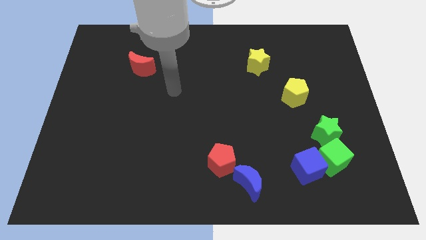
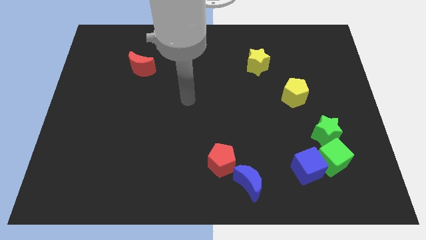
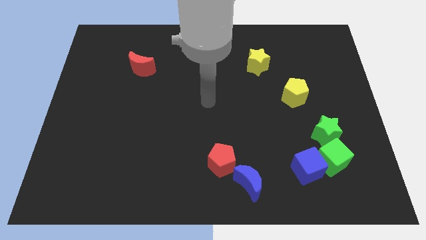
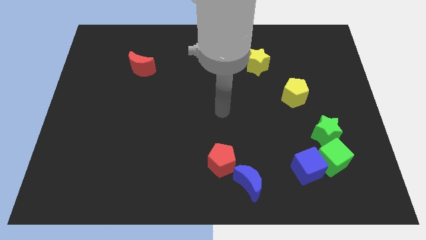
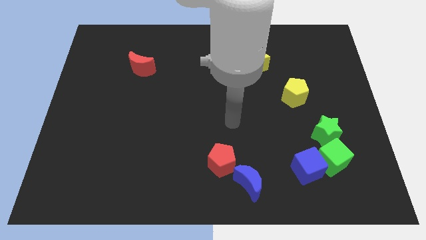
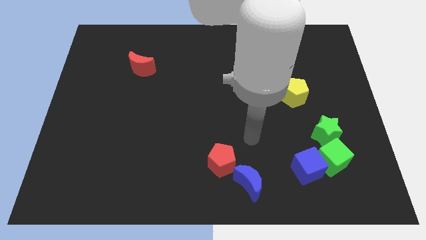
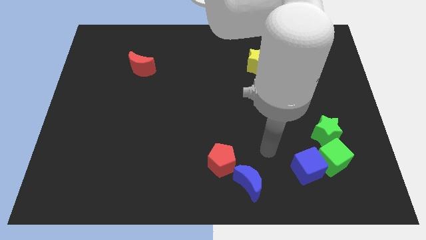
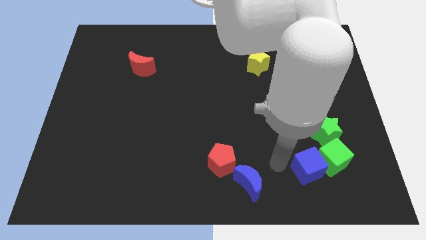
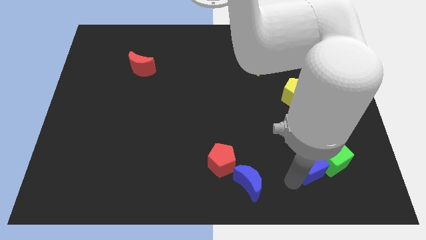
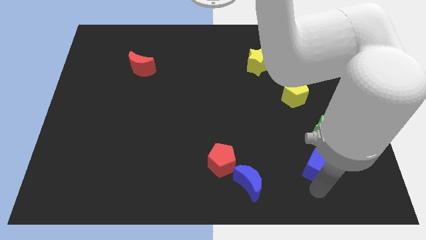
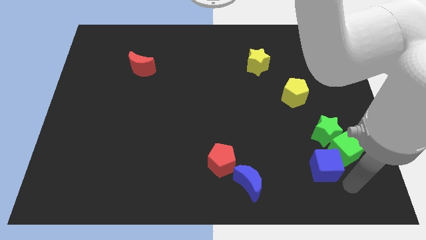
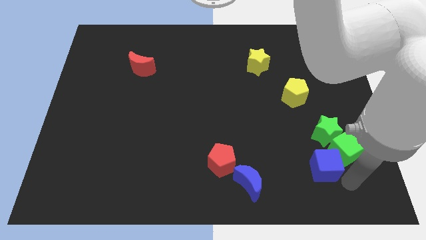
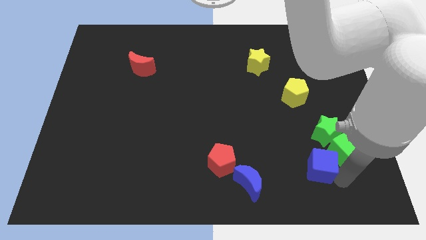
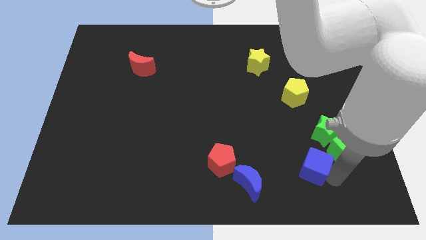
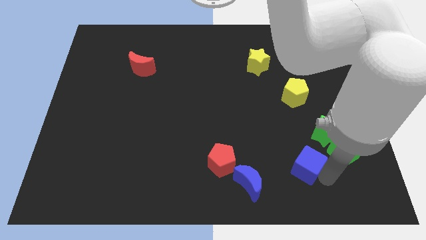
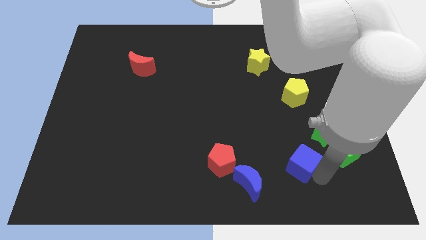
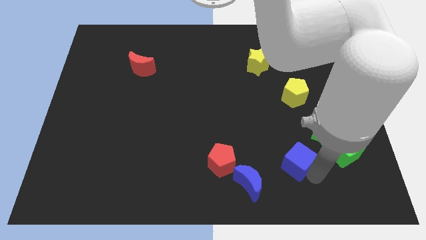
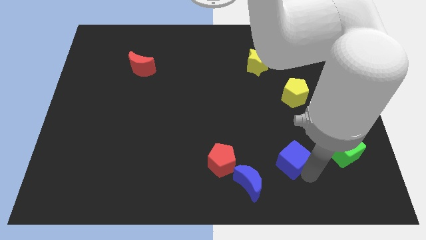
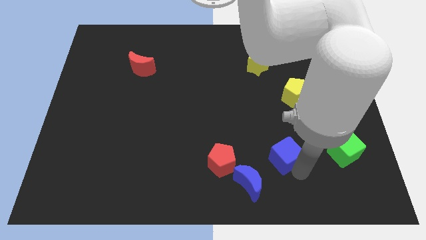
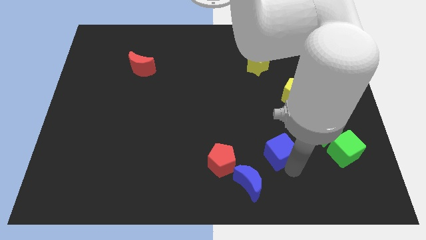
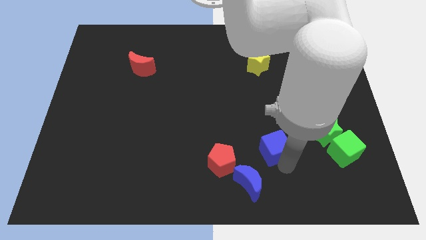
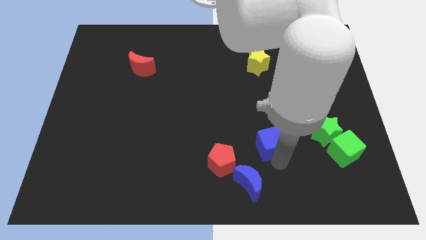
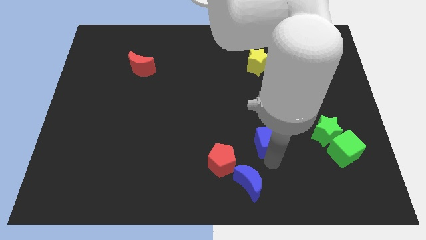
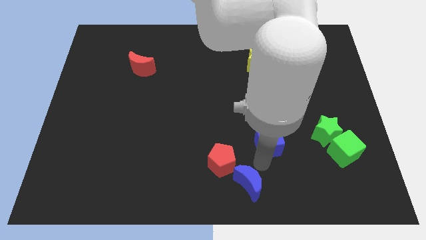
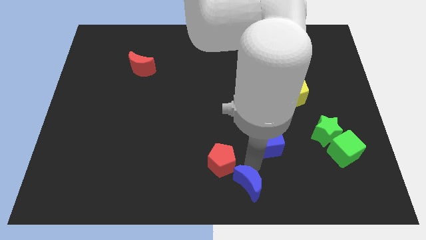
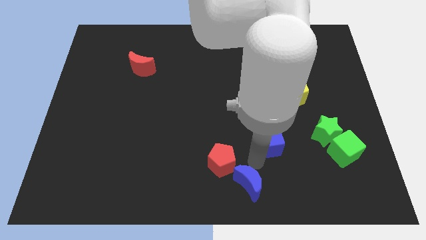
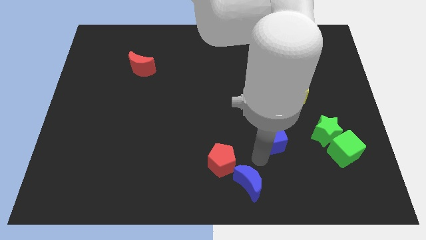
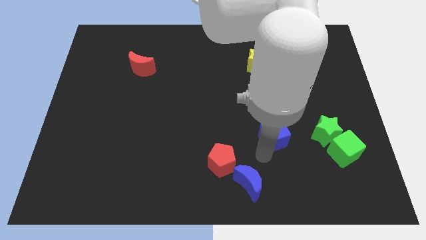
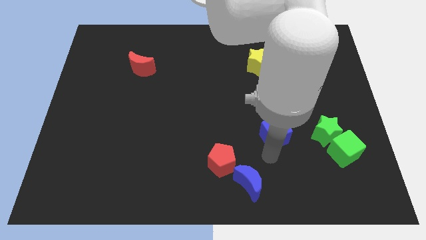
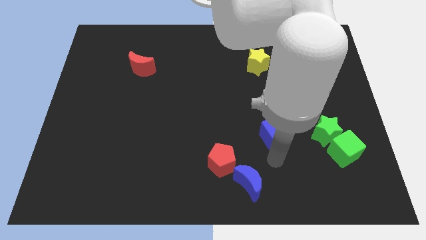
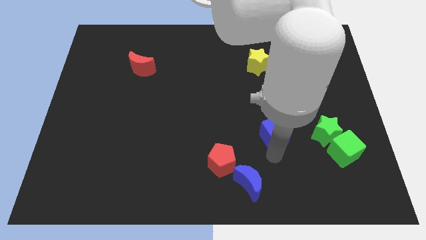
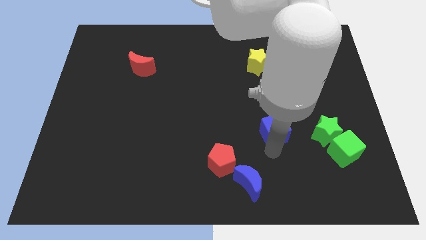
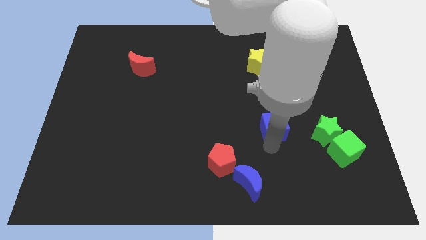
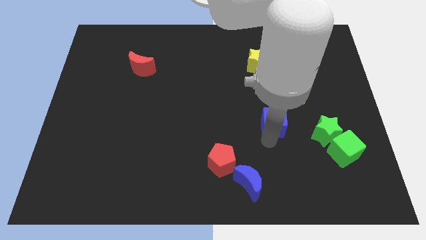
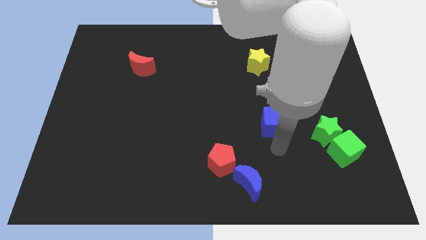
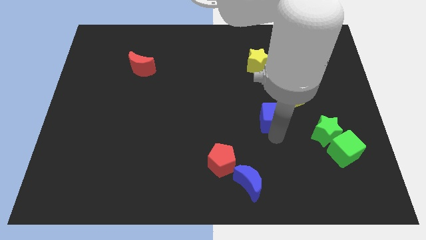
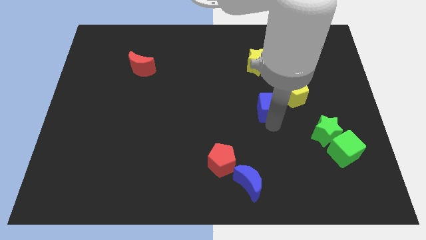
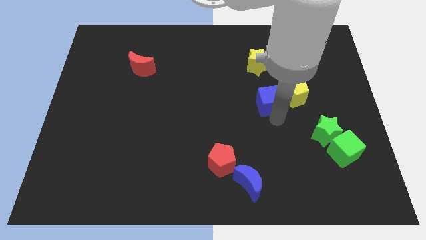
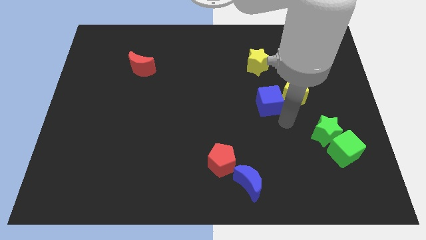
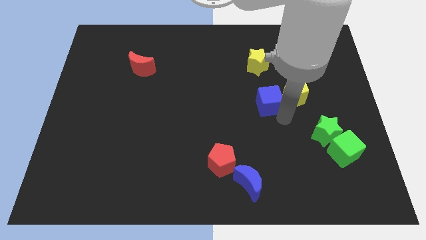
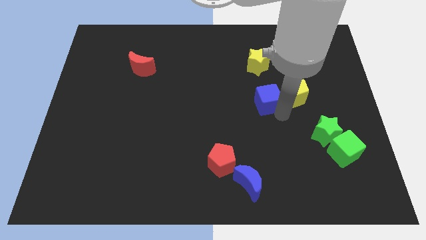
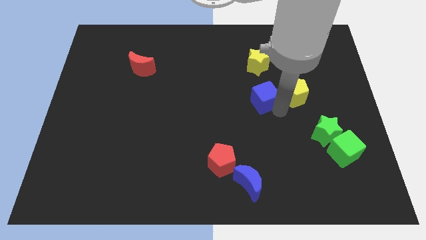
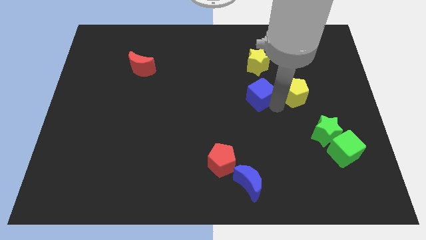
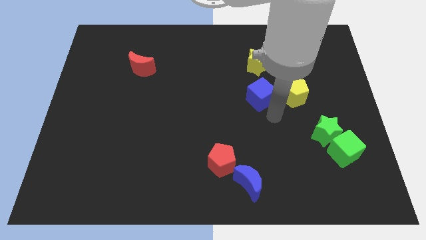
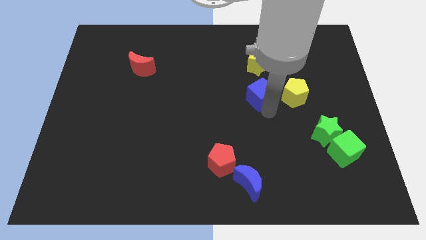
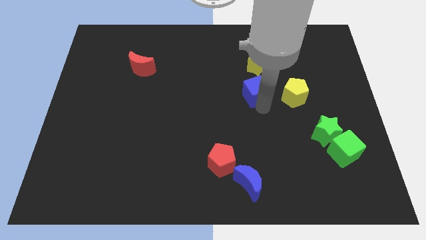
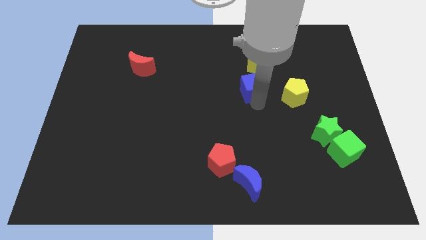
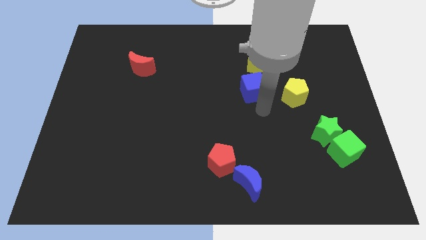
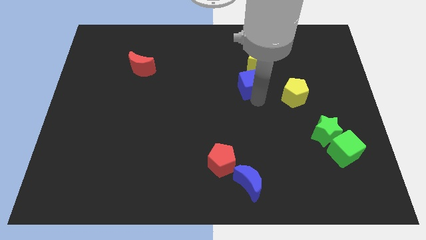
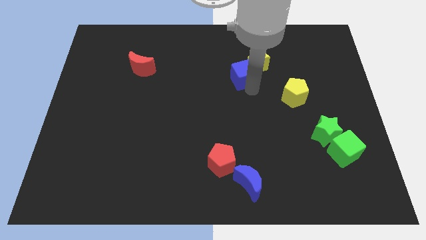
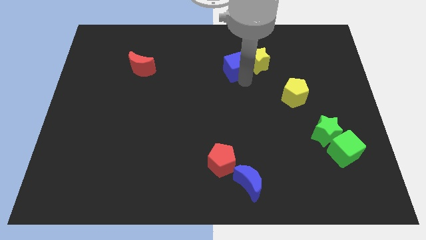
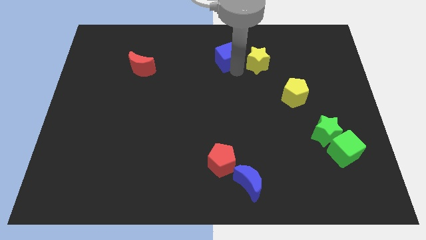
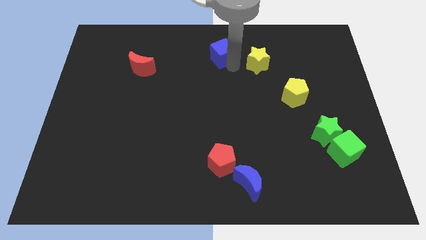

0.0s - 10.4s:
slide the blue cube to the towards your base

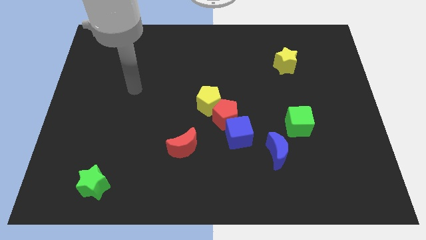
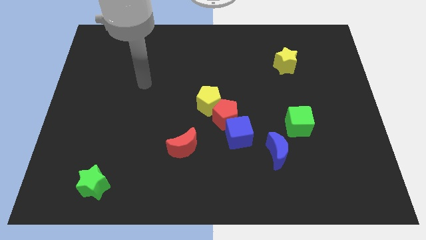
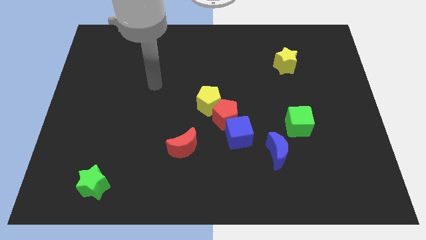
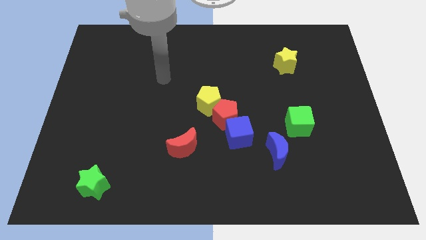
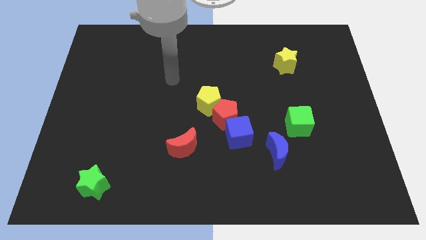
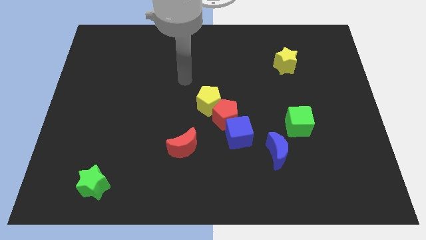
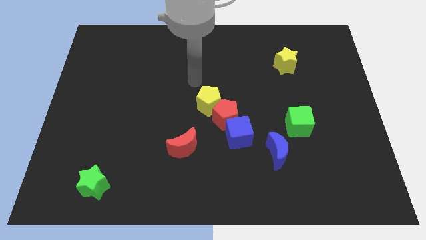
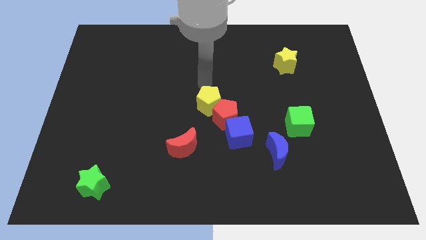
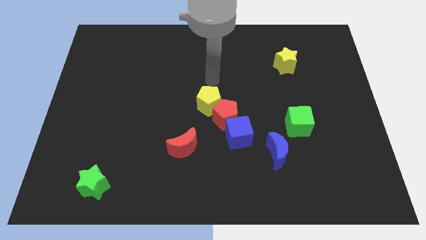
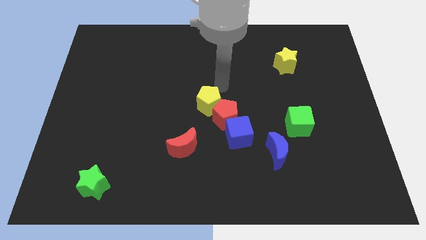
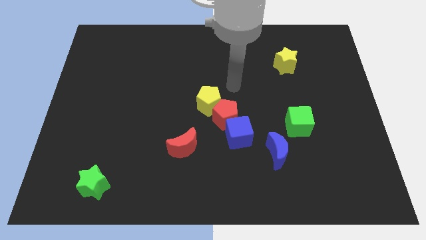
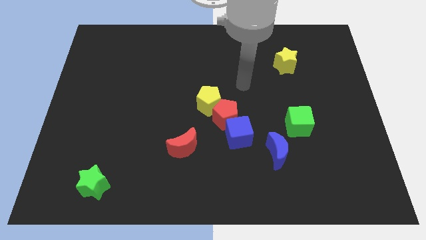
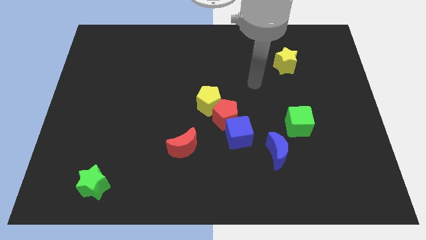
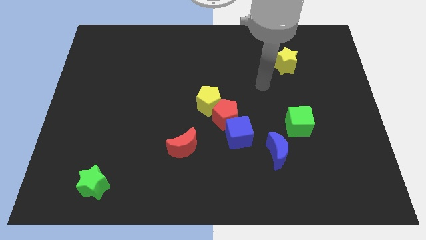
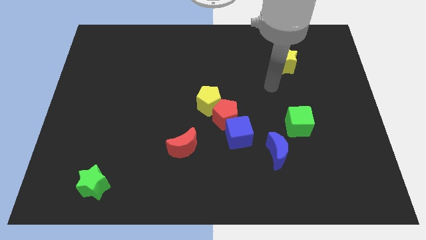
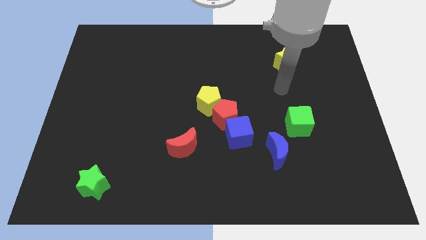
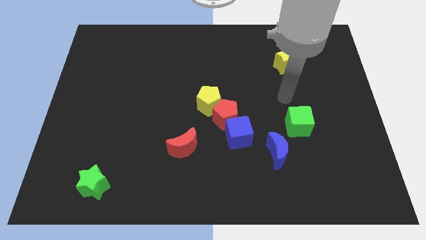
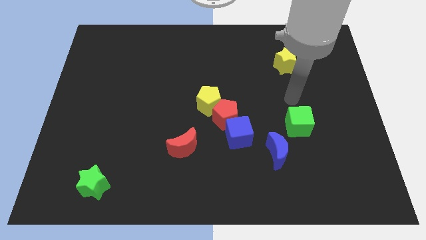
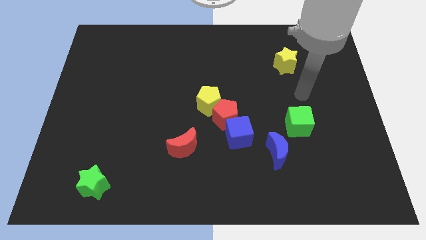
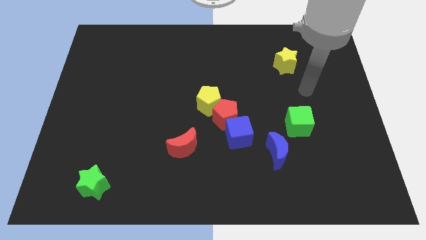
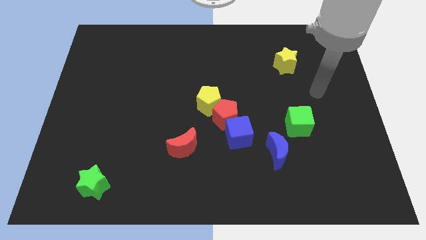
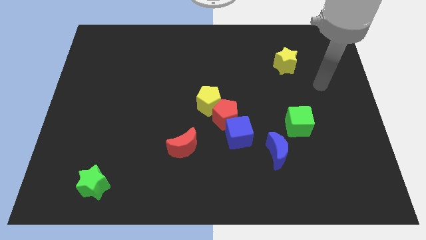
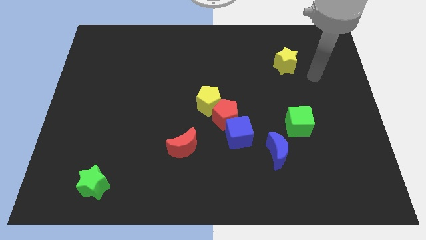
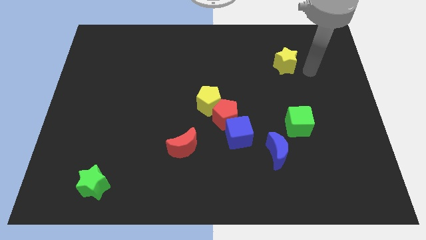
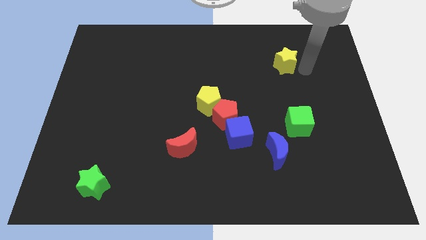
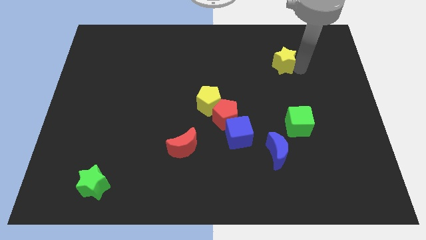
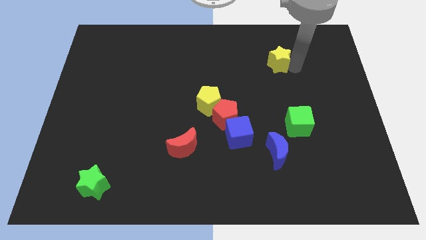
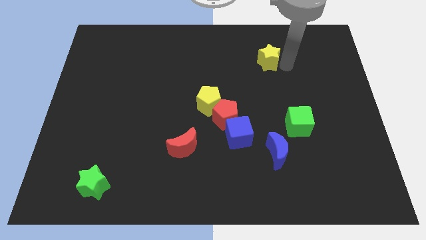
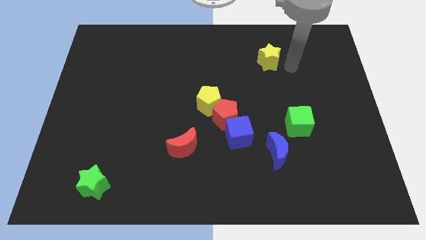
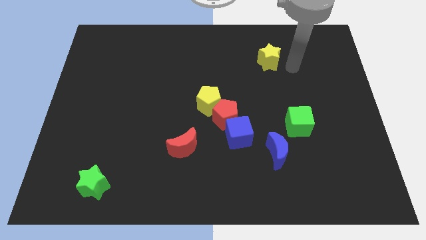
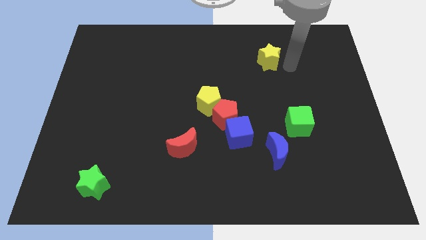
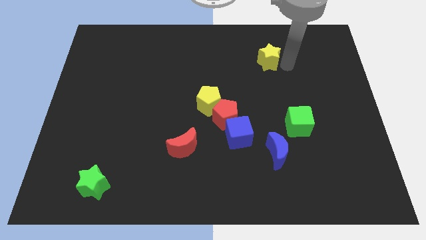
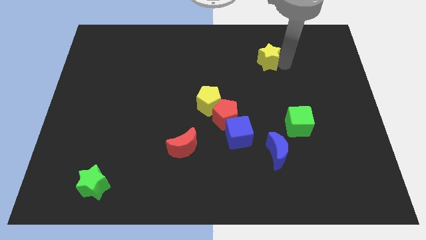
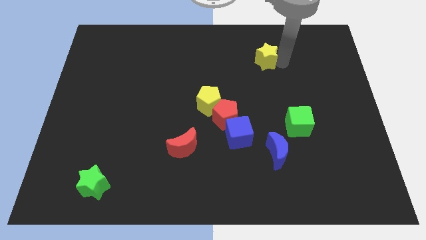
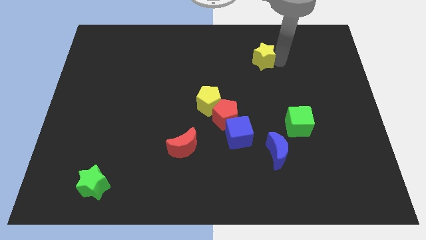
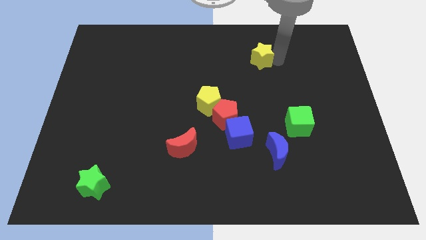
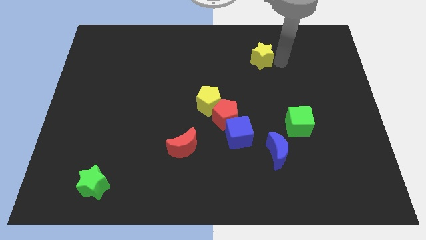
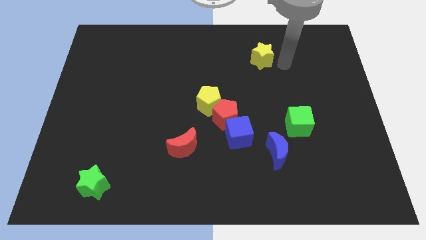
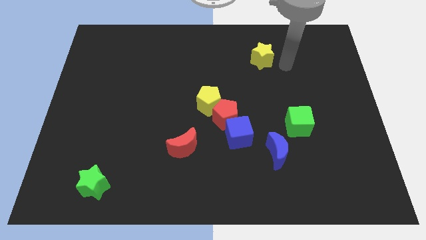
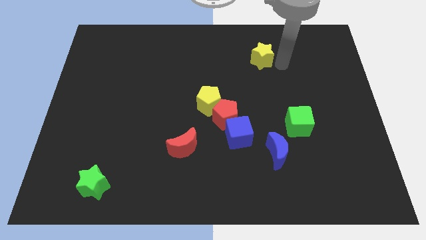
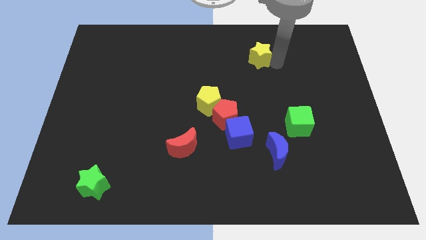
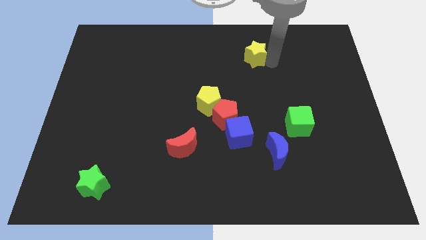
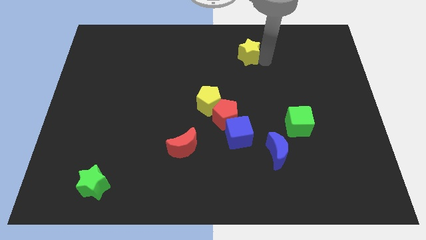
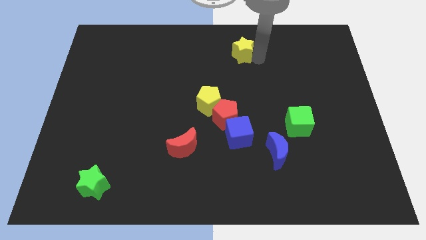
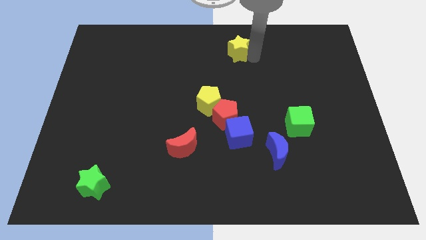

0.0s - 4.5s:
push the yellow star to the top
